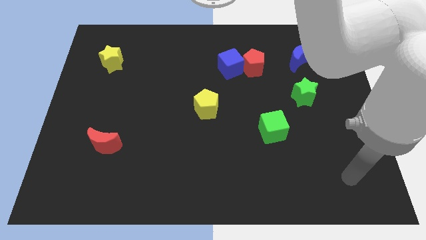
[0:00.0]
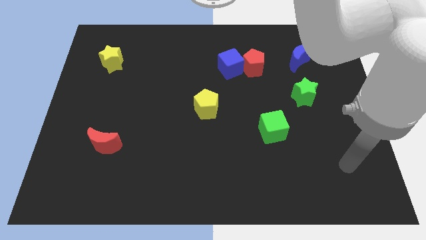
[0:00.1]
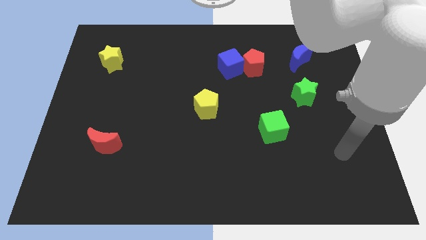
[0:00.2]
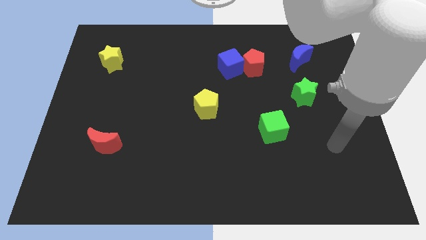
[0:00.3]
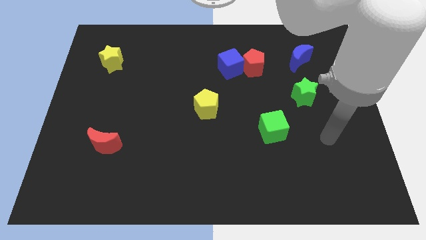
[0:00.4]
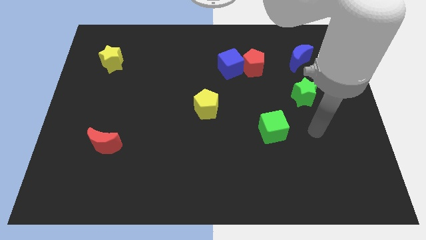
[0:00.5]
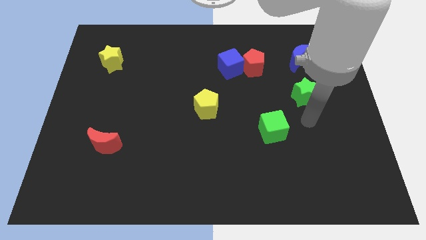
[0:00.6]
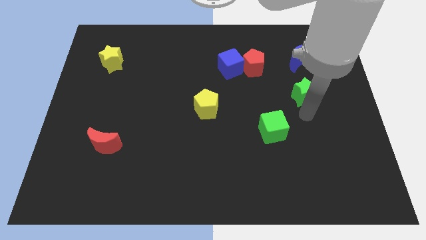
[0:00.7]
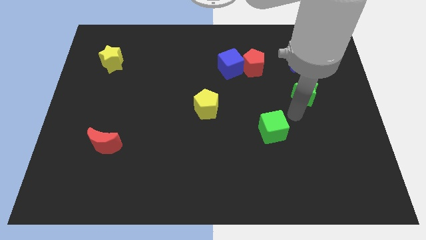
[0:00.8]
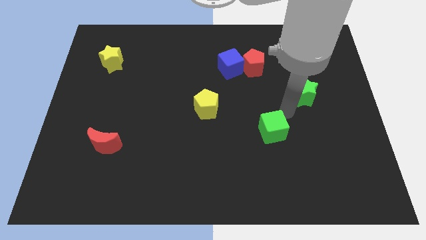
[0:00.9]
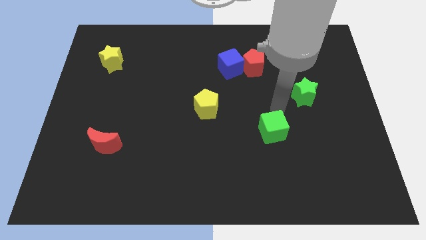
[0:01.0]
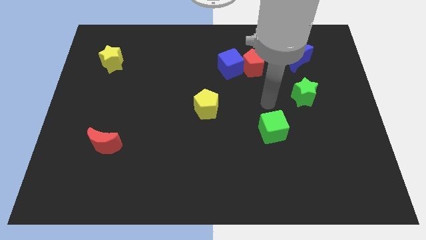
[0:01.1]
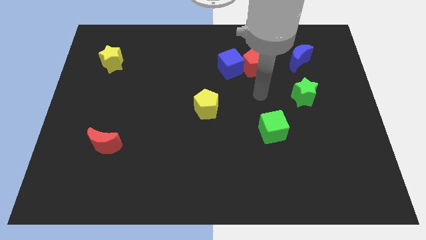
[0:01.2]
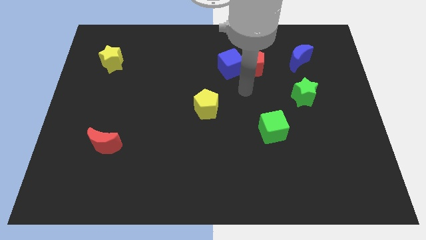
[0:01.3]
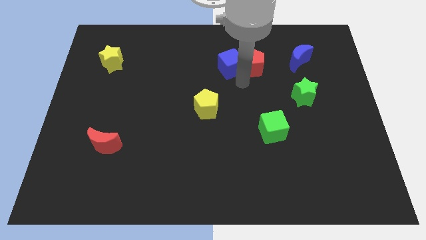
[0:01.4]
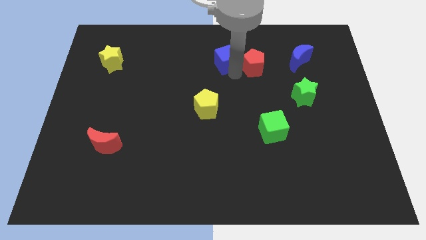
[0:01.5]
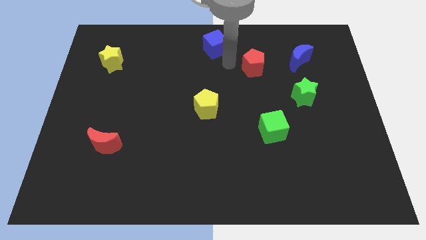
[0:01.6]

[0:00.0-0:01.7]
move the red pentagon away from the blue cube

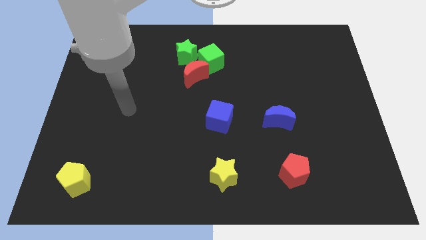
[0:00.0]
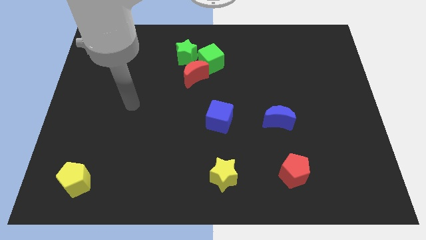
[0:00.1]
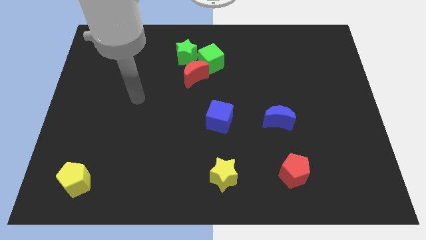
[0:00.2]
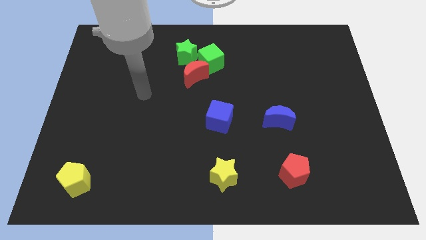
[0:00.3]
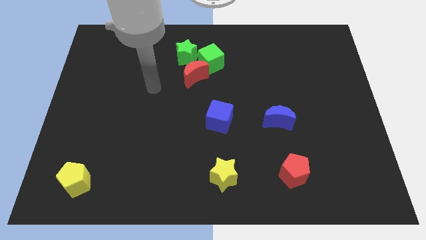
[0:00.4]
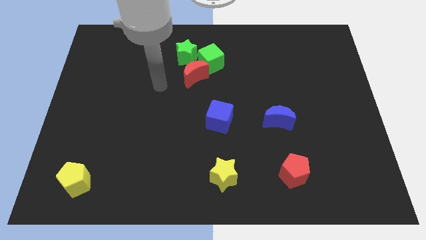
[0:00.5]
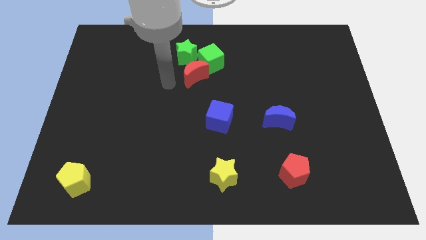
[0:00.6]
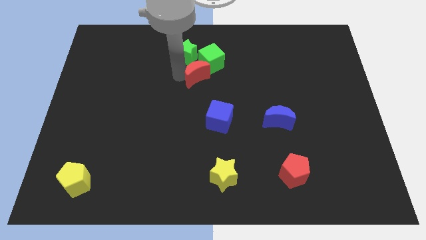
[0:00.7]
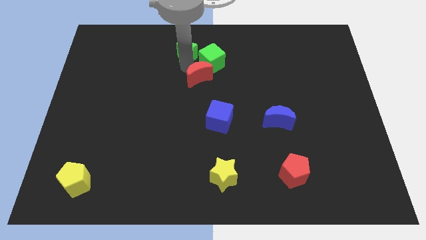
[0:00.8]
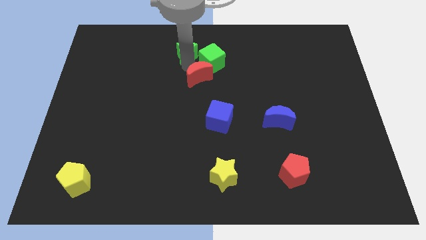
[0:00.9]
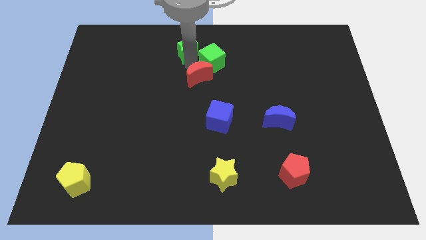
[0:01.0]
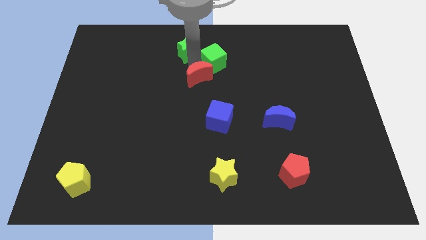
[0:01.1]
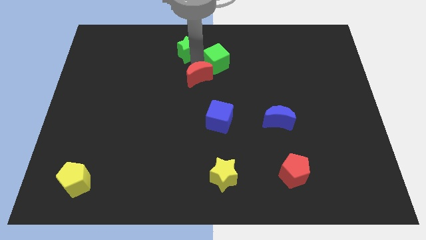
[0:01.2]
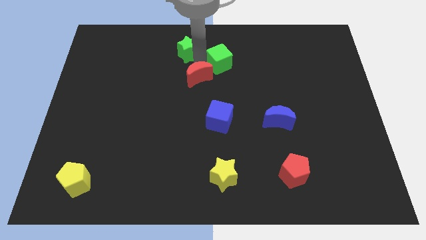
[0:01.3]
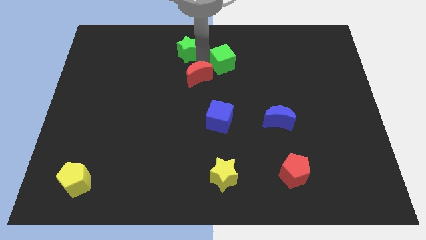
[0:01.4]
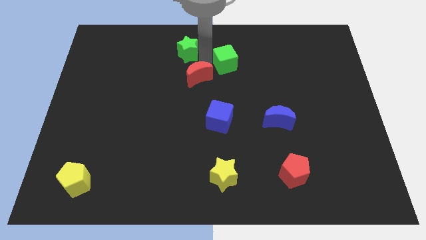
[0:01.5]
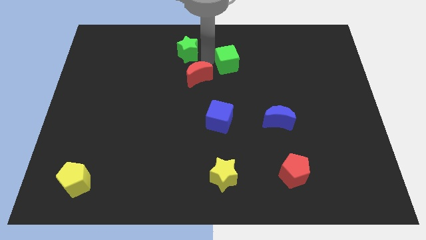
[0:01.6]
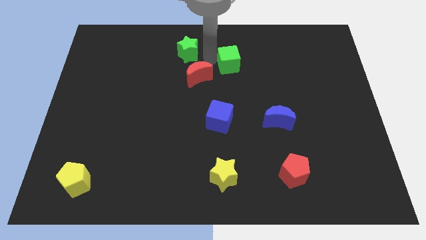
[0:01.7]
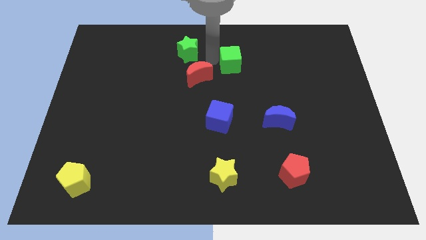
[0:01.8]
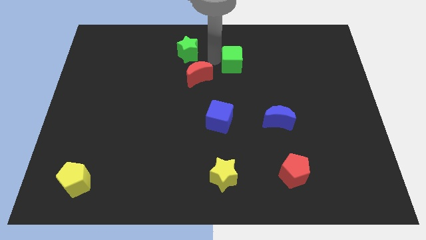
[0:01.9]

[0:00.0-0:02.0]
move the green cube away from the red moon and green star

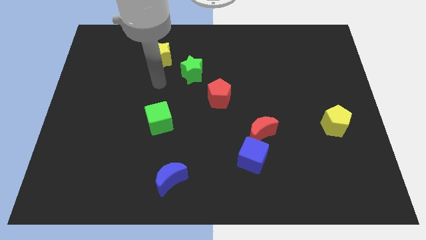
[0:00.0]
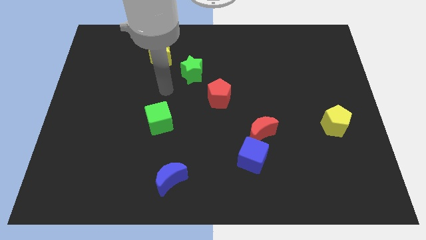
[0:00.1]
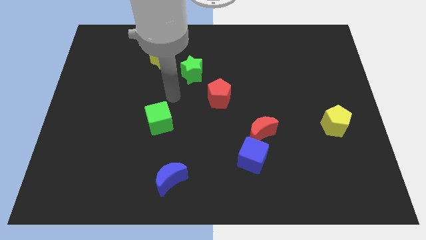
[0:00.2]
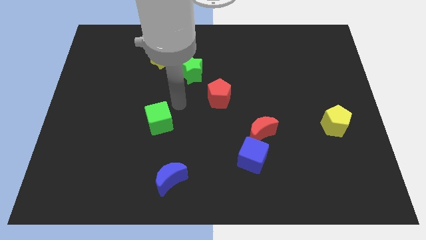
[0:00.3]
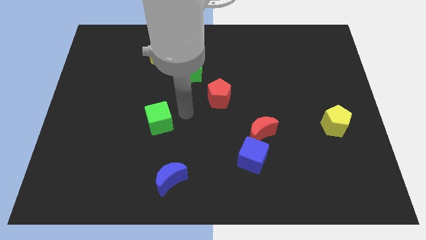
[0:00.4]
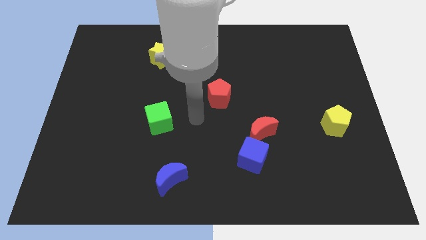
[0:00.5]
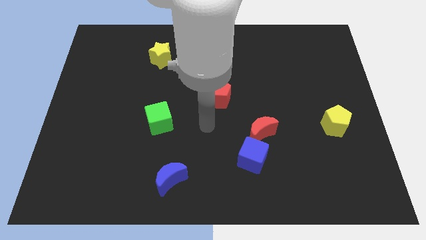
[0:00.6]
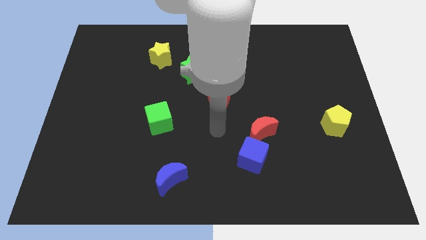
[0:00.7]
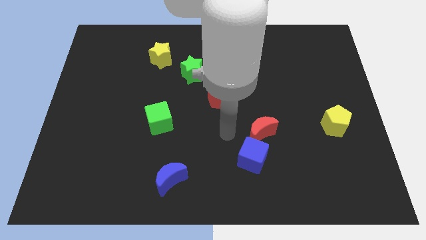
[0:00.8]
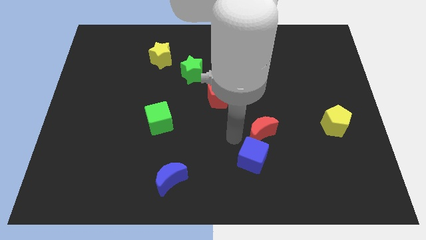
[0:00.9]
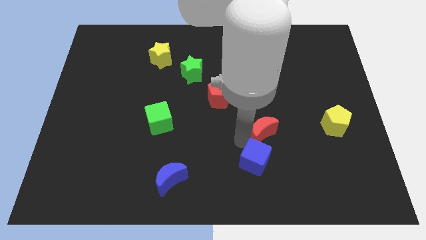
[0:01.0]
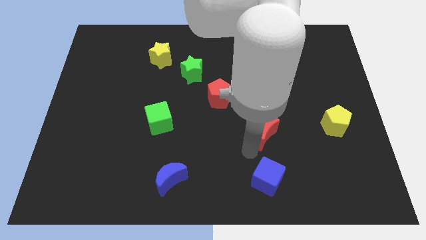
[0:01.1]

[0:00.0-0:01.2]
pull the red moon apart from the blue cube

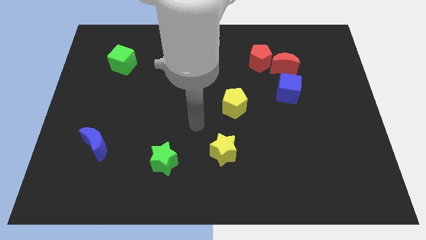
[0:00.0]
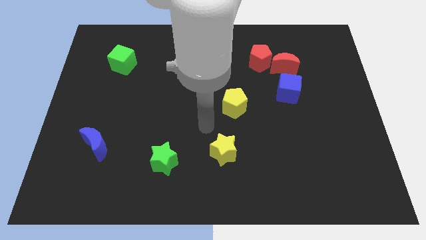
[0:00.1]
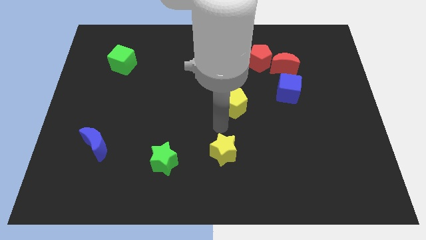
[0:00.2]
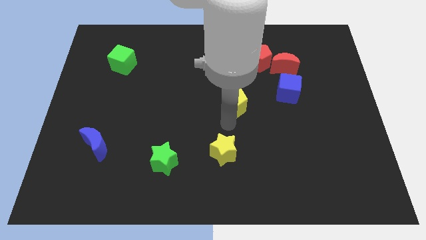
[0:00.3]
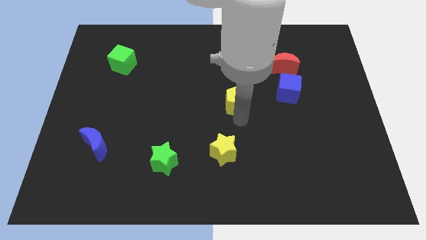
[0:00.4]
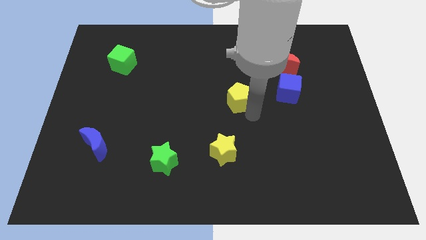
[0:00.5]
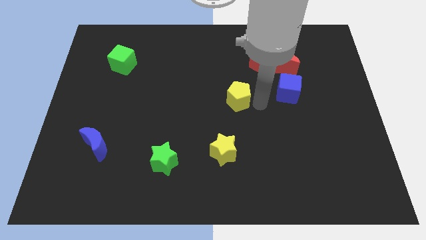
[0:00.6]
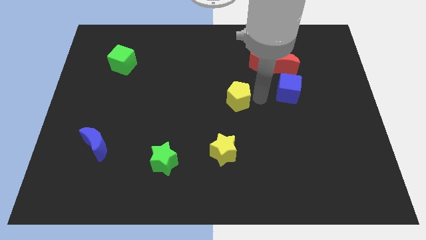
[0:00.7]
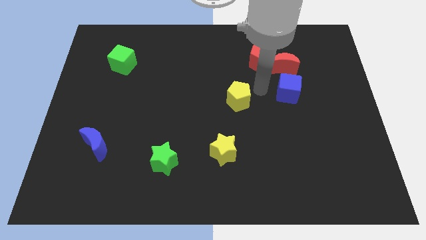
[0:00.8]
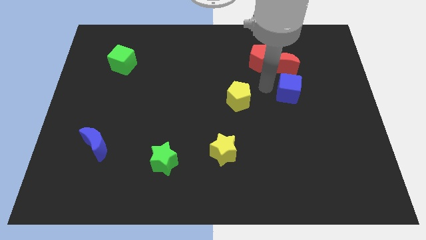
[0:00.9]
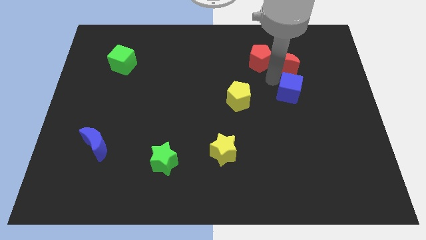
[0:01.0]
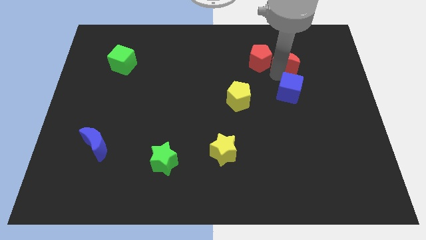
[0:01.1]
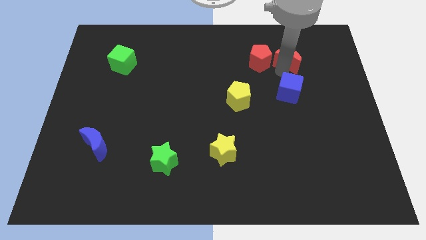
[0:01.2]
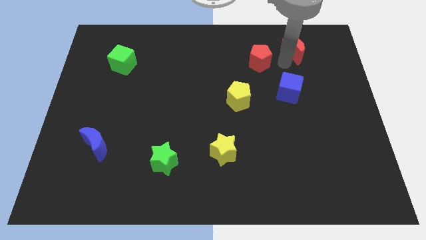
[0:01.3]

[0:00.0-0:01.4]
pull the red pentagon apart from the red moon

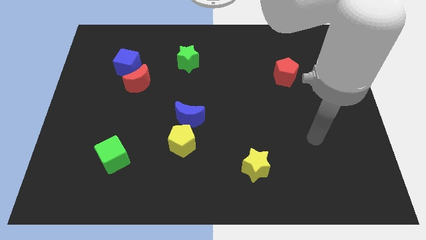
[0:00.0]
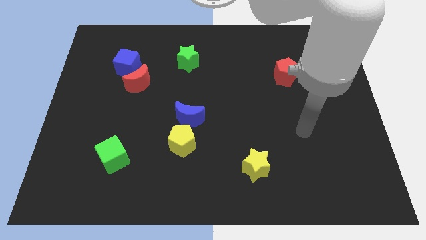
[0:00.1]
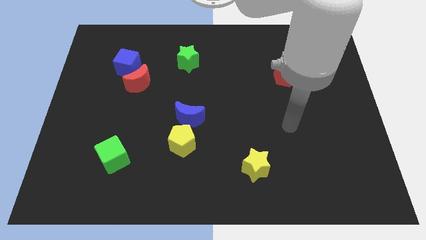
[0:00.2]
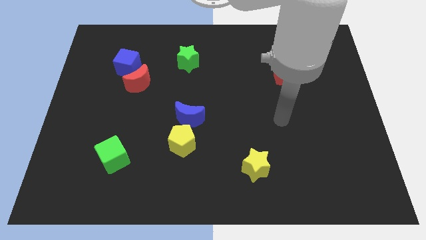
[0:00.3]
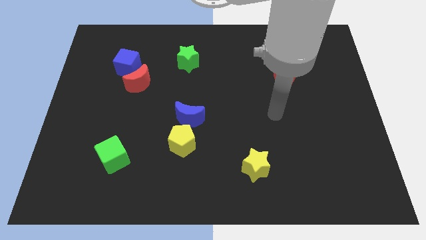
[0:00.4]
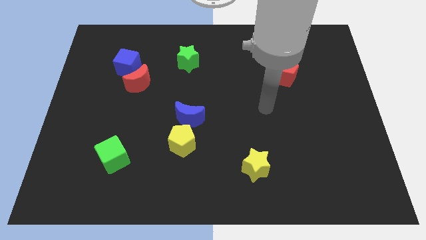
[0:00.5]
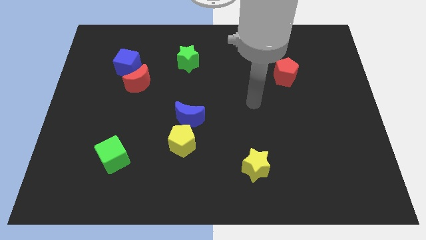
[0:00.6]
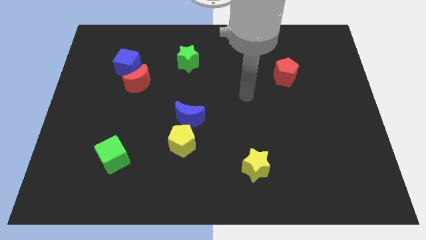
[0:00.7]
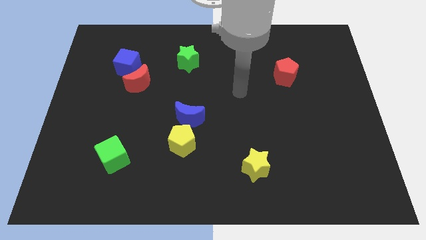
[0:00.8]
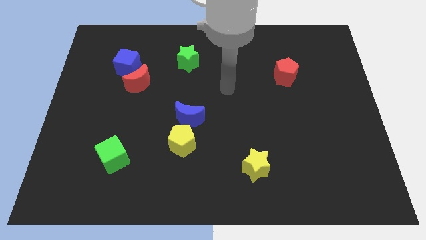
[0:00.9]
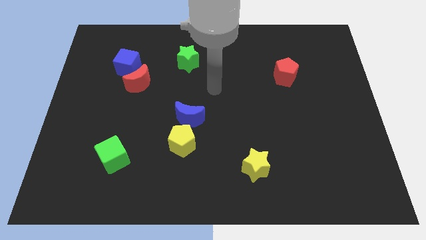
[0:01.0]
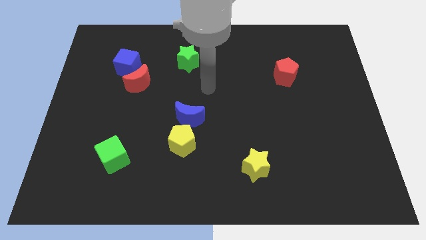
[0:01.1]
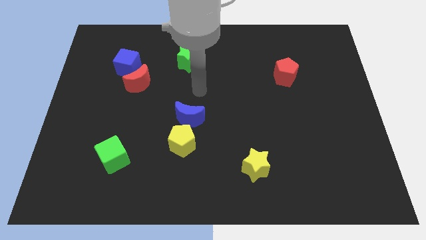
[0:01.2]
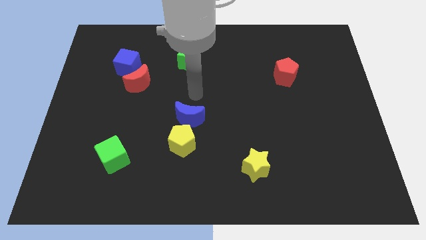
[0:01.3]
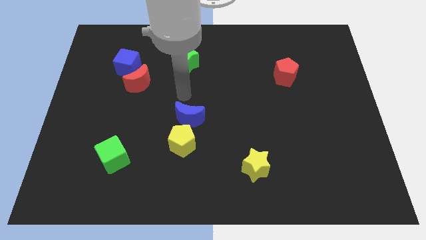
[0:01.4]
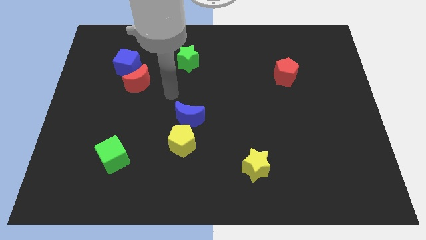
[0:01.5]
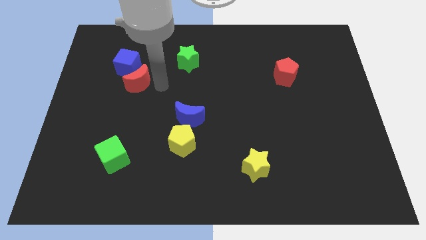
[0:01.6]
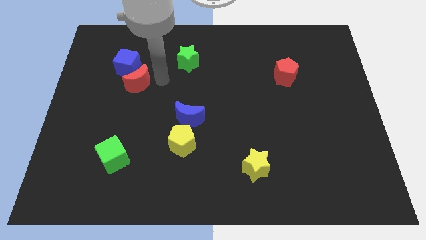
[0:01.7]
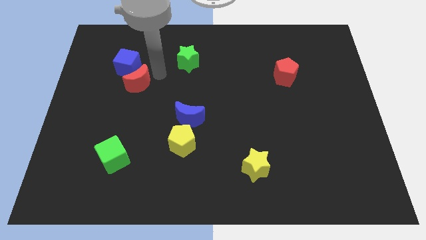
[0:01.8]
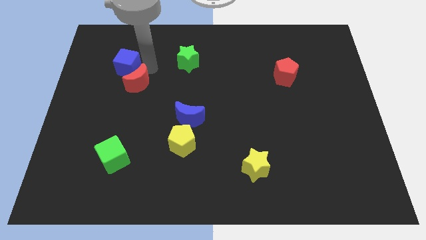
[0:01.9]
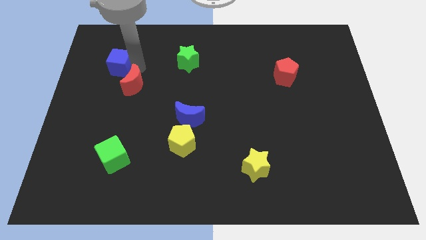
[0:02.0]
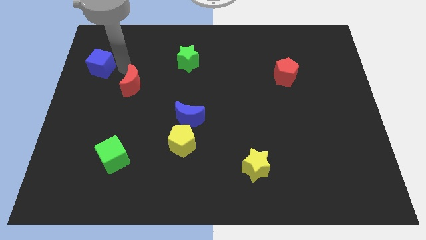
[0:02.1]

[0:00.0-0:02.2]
separate the red moon from the blue cube

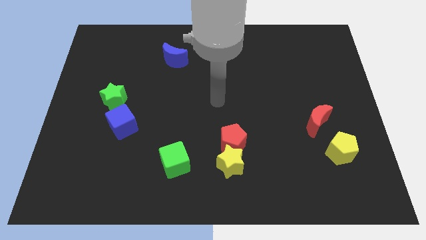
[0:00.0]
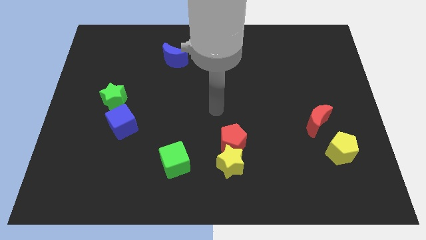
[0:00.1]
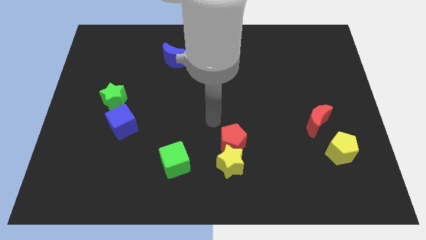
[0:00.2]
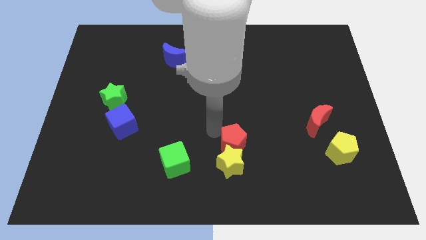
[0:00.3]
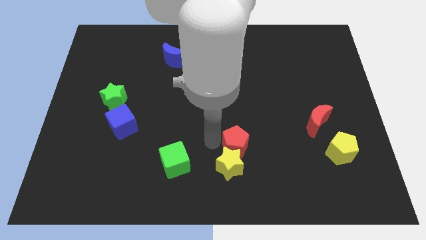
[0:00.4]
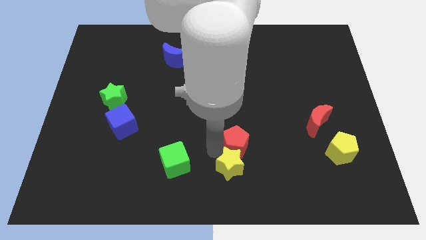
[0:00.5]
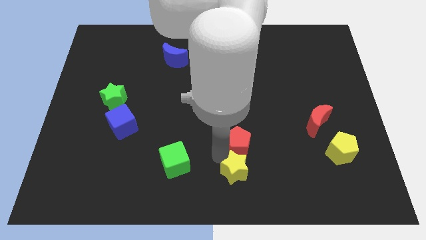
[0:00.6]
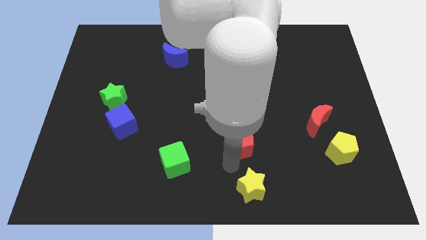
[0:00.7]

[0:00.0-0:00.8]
separate the red pentagon from the yellow star
